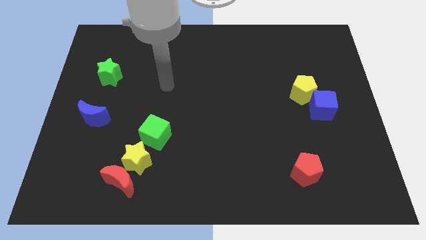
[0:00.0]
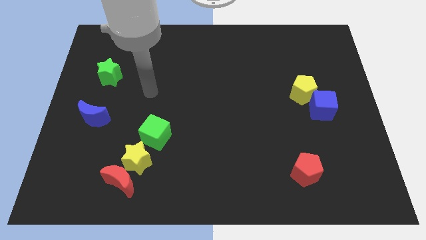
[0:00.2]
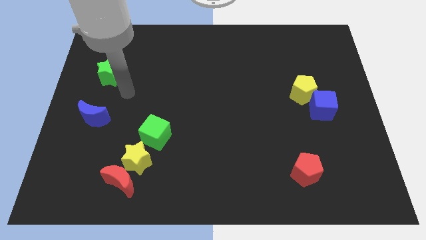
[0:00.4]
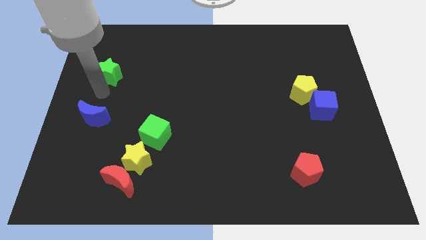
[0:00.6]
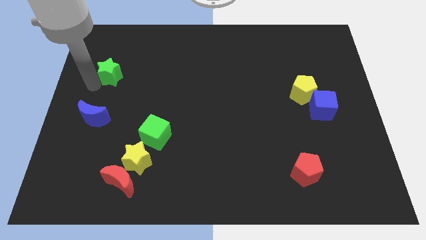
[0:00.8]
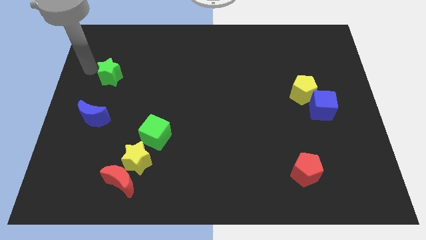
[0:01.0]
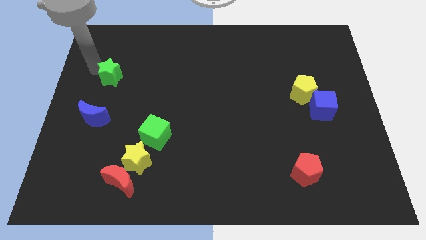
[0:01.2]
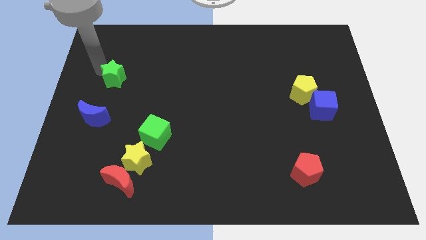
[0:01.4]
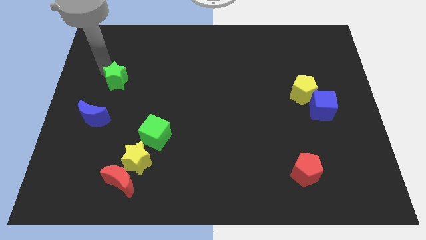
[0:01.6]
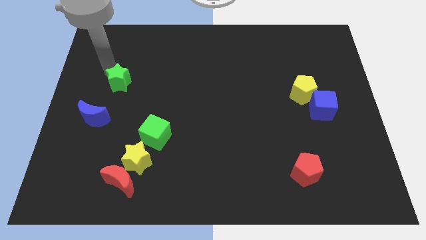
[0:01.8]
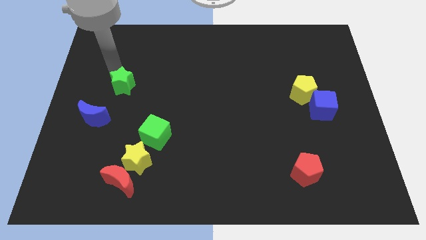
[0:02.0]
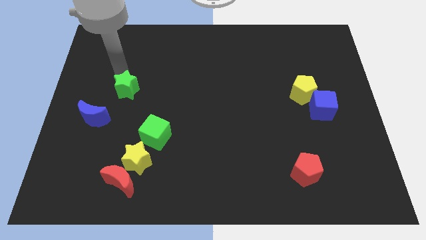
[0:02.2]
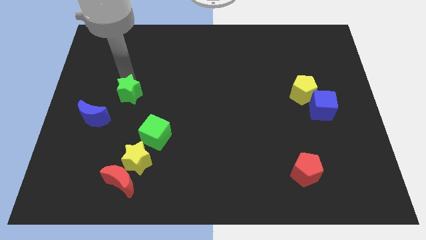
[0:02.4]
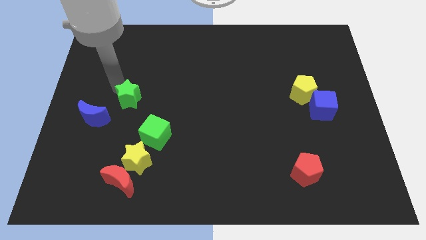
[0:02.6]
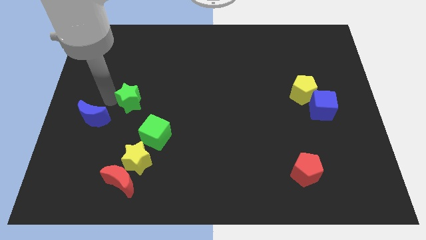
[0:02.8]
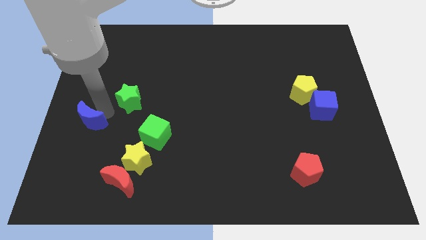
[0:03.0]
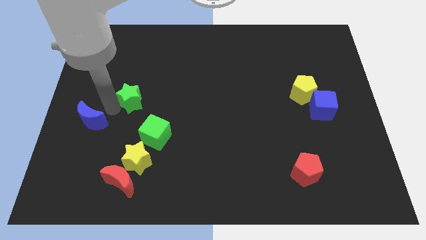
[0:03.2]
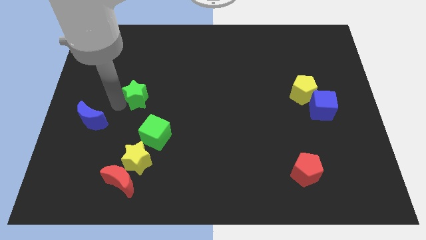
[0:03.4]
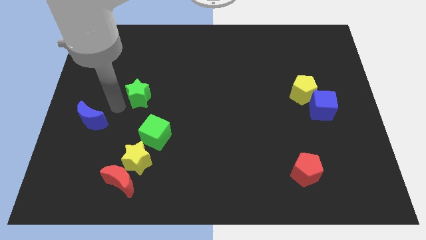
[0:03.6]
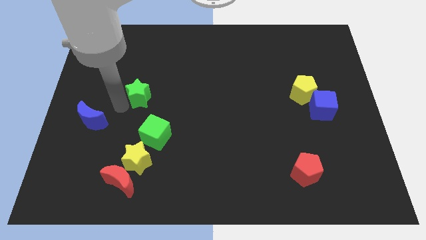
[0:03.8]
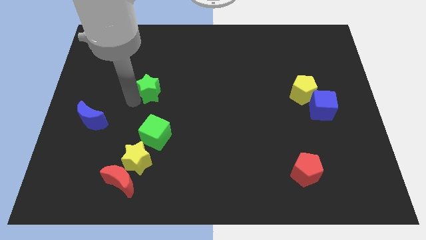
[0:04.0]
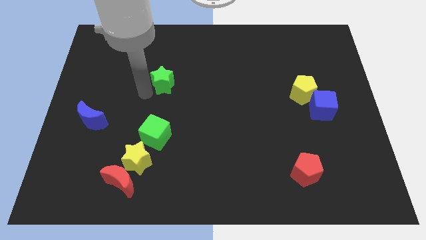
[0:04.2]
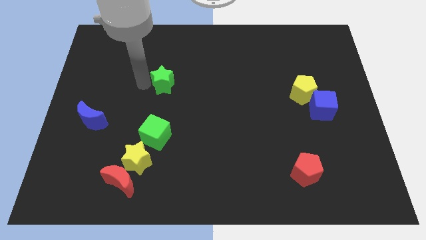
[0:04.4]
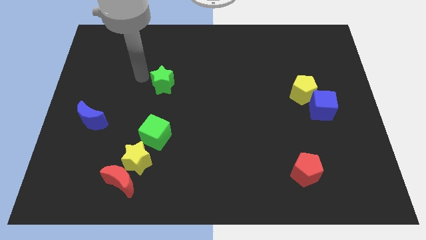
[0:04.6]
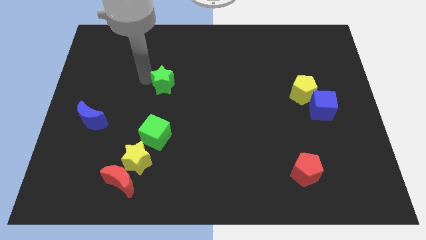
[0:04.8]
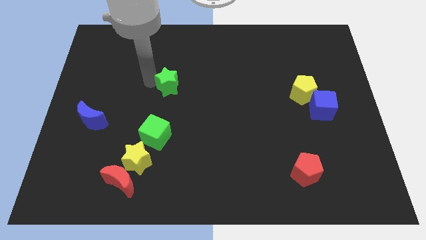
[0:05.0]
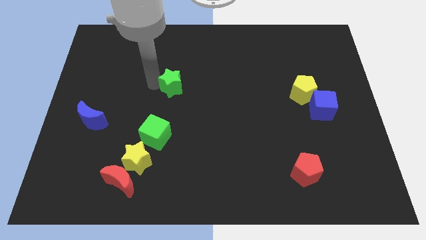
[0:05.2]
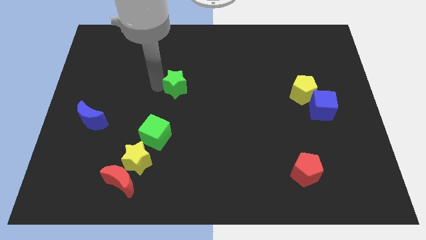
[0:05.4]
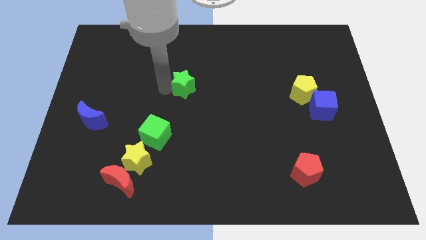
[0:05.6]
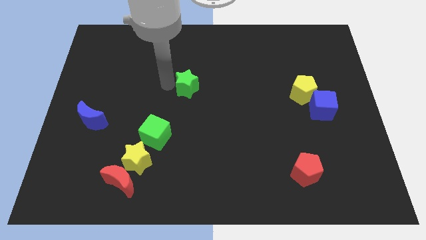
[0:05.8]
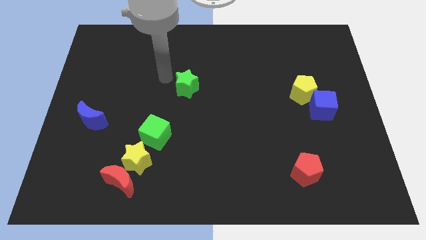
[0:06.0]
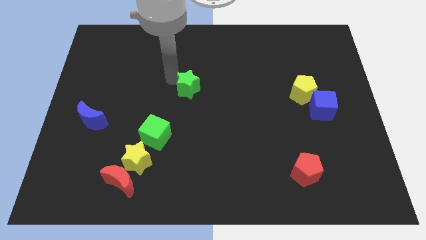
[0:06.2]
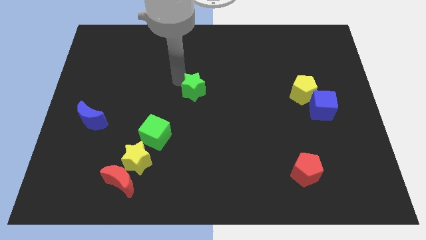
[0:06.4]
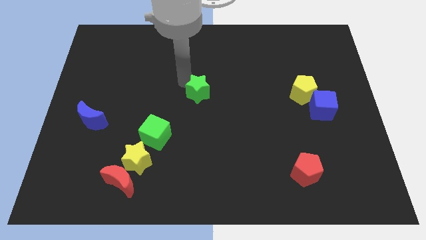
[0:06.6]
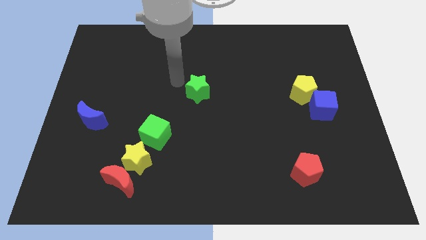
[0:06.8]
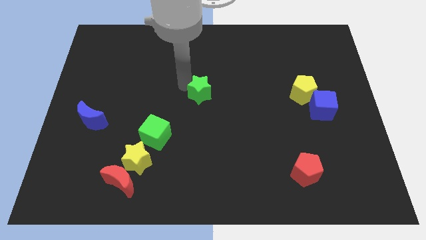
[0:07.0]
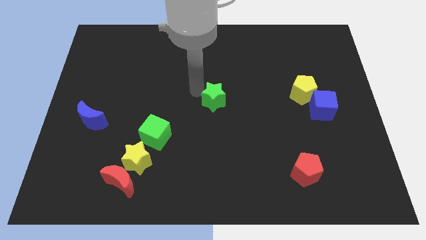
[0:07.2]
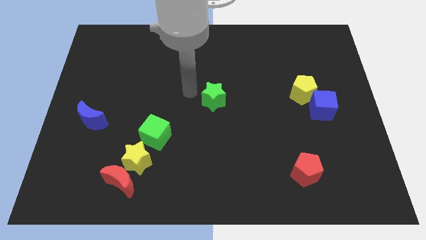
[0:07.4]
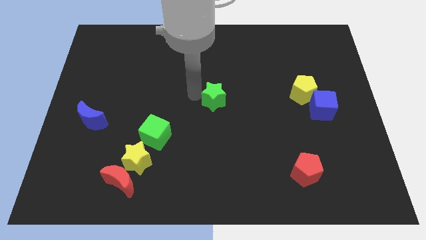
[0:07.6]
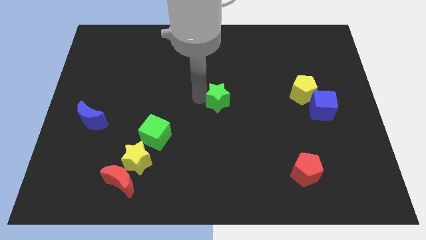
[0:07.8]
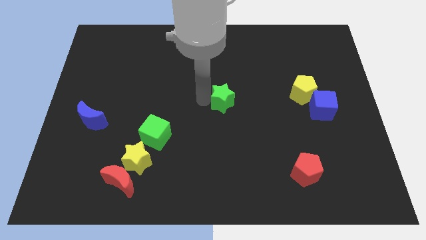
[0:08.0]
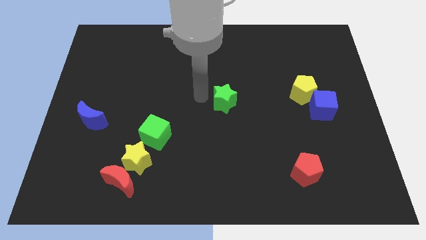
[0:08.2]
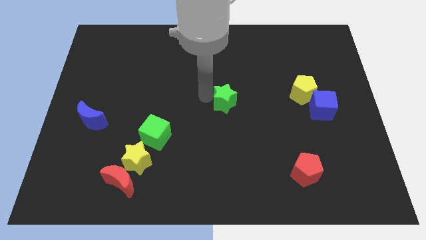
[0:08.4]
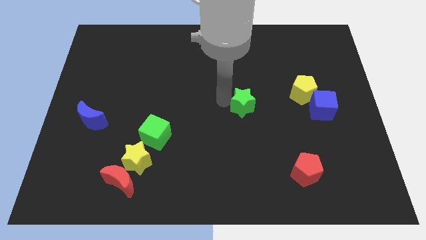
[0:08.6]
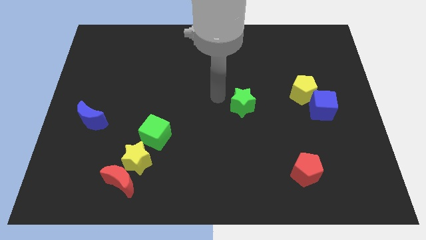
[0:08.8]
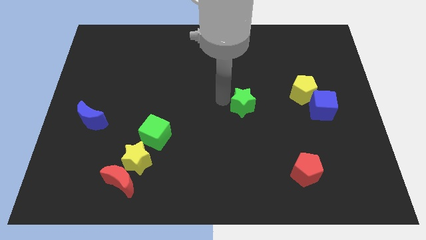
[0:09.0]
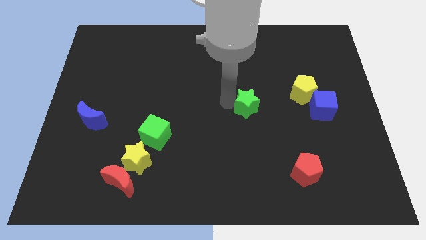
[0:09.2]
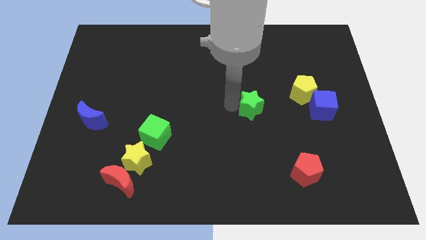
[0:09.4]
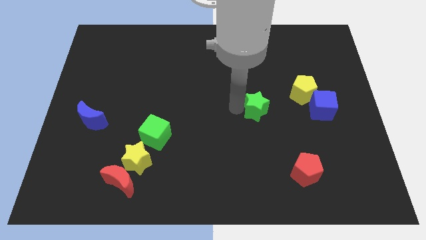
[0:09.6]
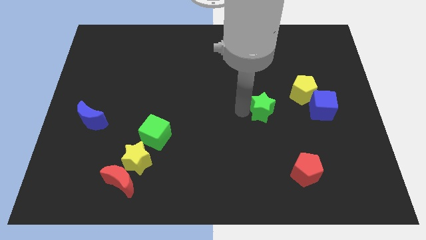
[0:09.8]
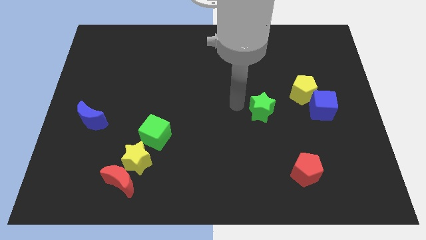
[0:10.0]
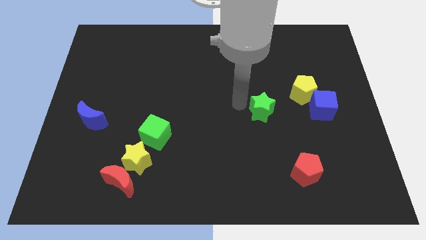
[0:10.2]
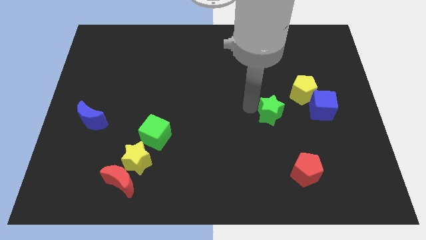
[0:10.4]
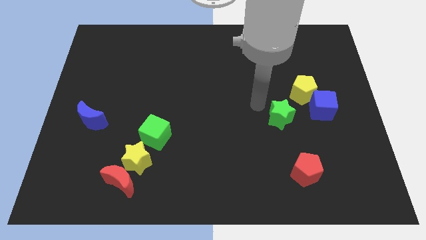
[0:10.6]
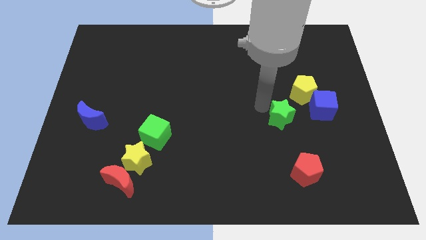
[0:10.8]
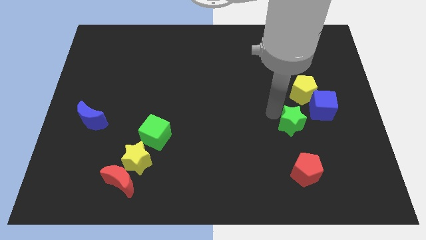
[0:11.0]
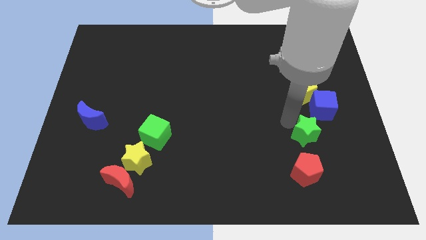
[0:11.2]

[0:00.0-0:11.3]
move the green star to the bottom of the blue cube

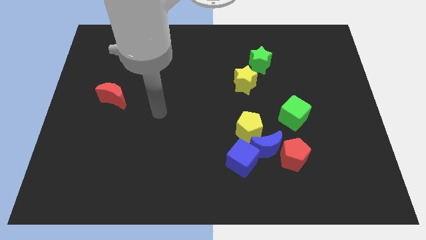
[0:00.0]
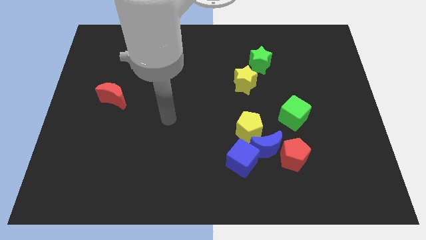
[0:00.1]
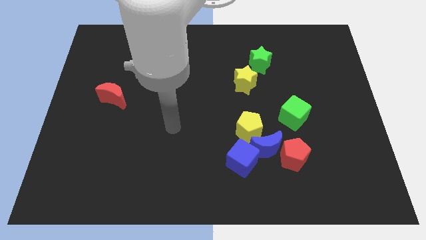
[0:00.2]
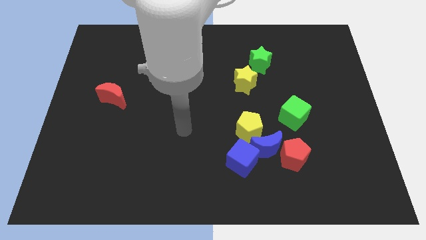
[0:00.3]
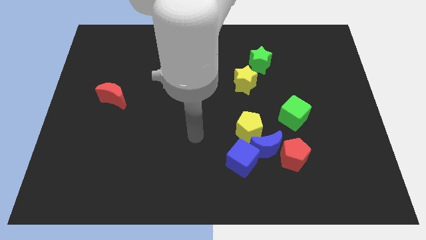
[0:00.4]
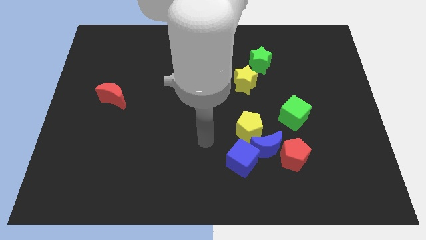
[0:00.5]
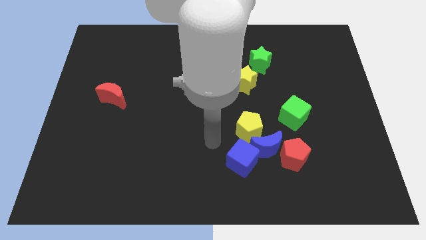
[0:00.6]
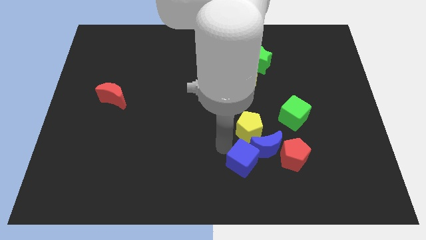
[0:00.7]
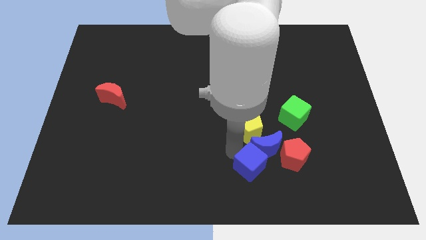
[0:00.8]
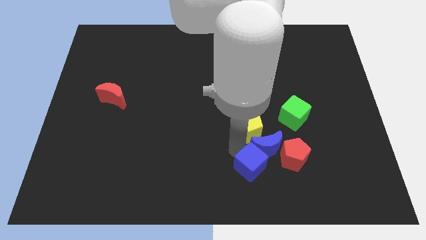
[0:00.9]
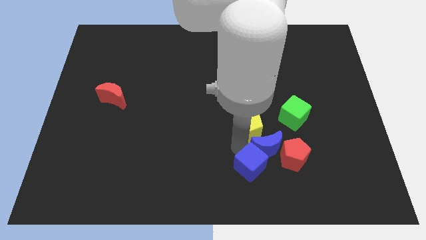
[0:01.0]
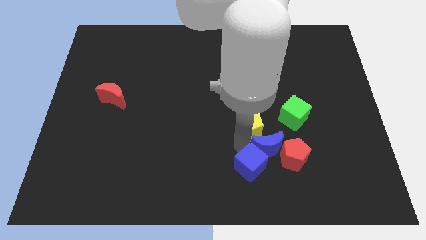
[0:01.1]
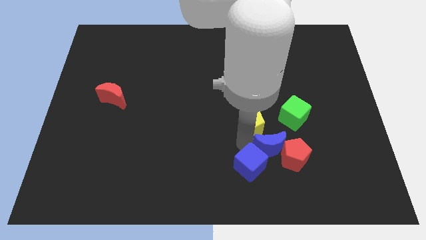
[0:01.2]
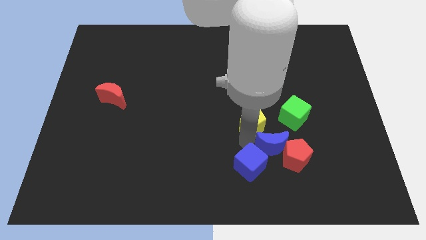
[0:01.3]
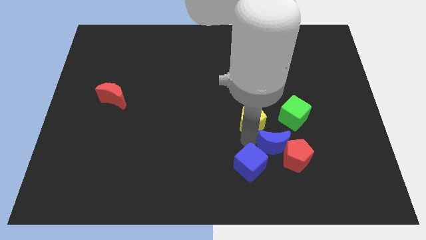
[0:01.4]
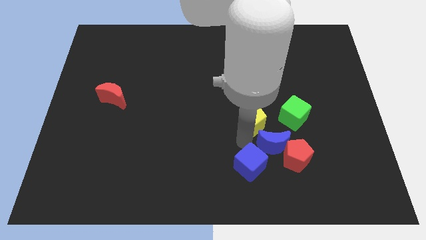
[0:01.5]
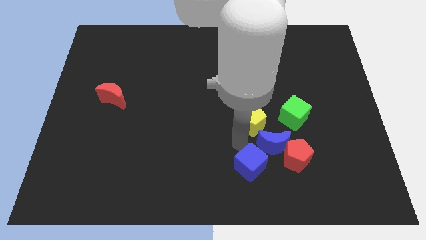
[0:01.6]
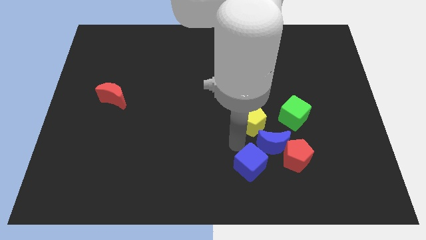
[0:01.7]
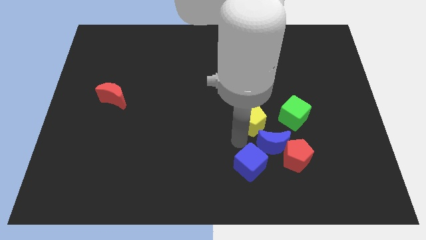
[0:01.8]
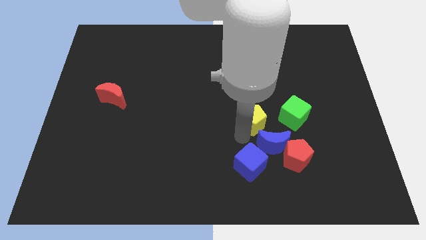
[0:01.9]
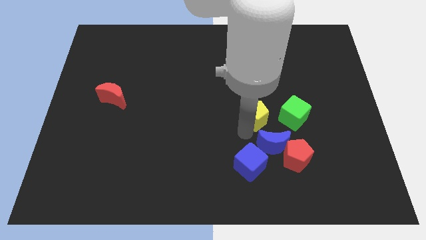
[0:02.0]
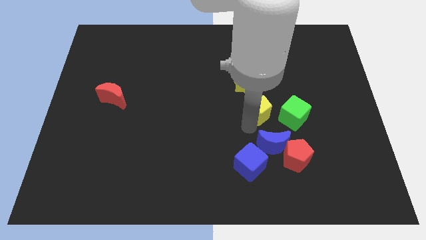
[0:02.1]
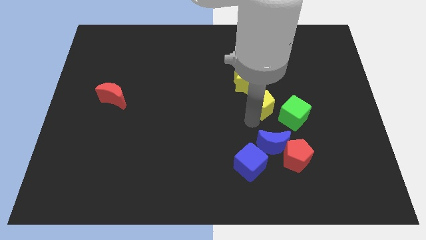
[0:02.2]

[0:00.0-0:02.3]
put the yellow pentagon diagonally up and to the left of the green cube
